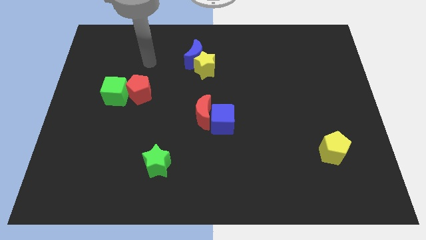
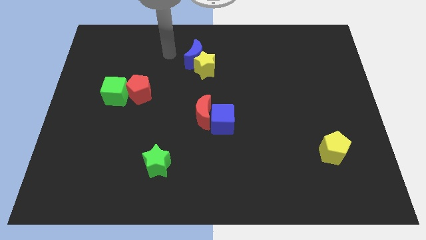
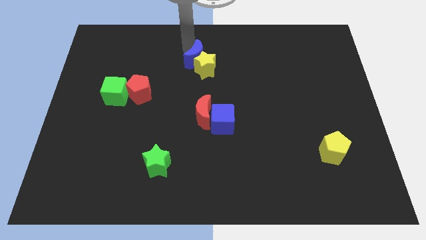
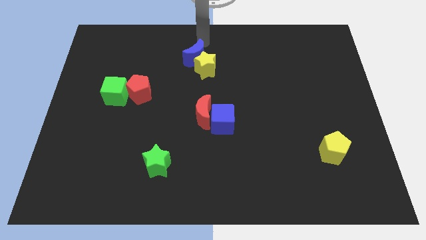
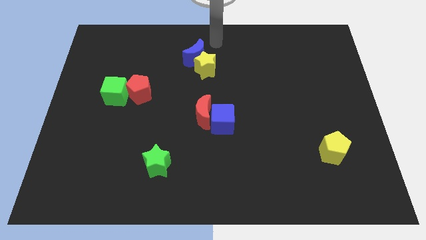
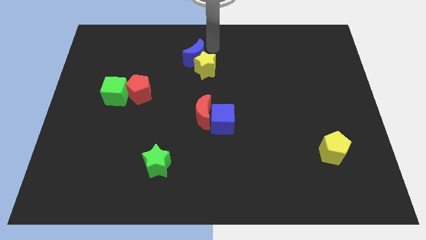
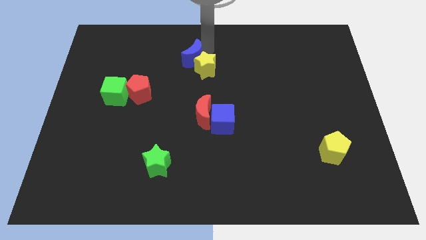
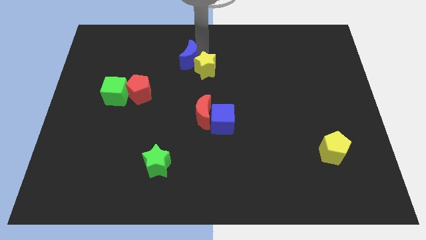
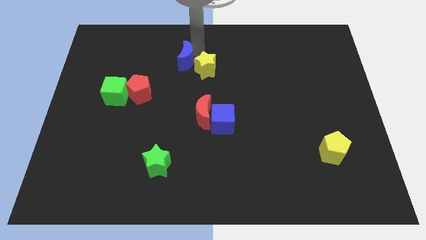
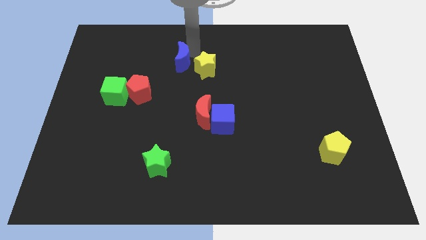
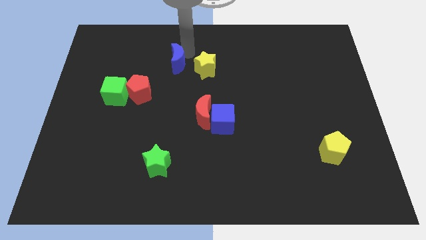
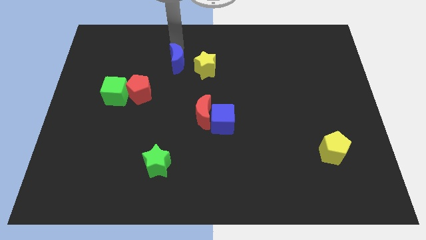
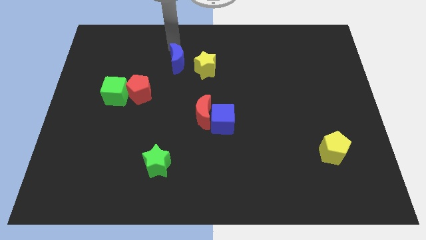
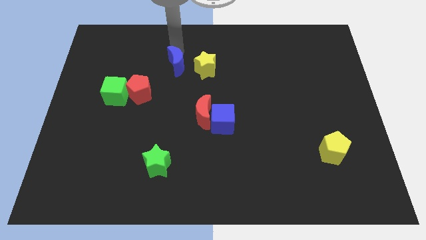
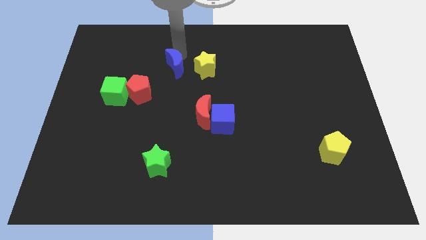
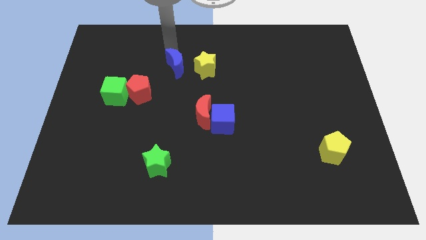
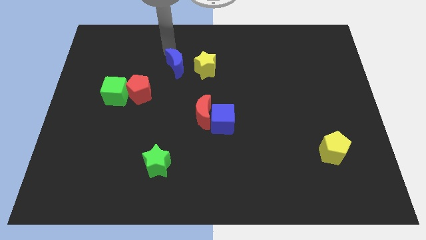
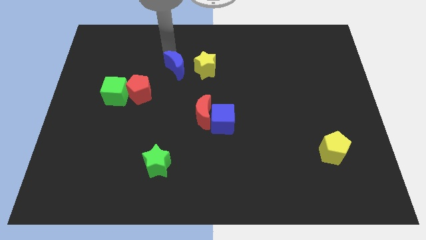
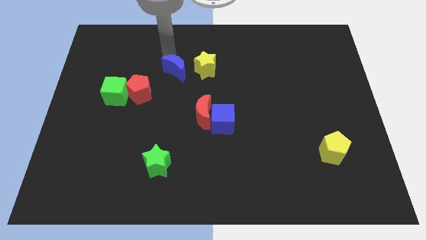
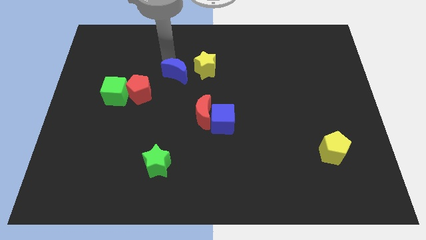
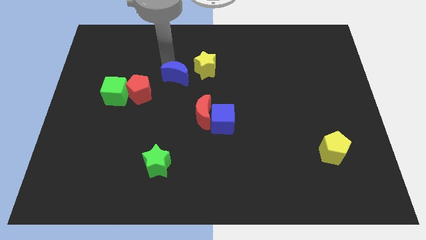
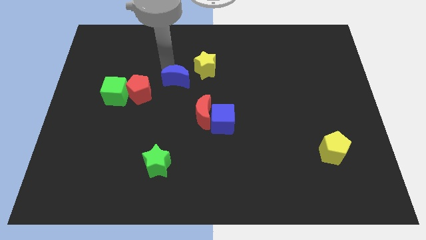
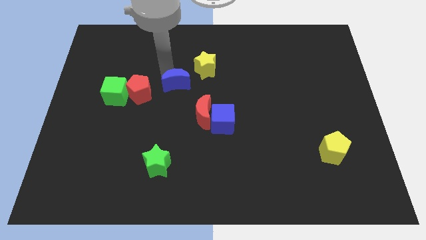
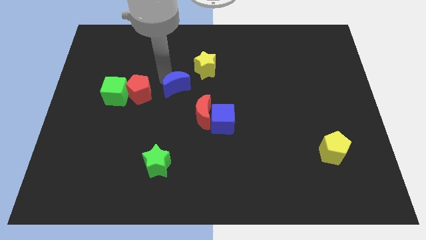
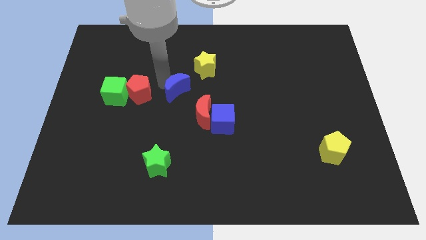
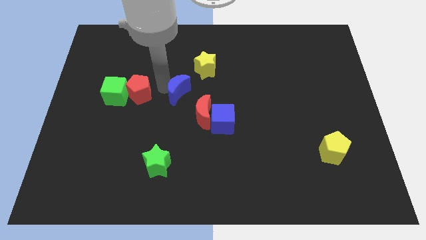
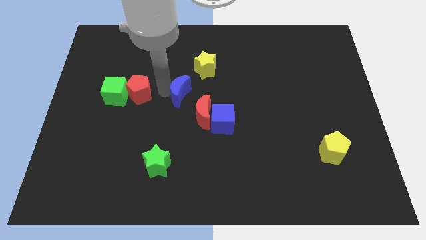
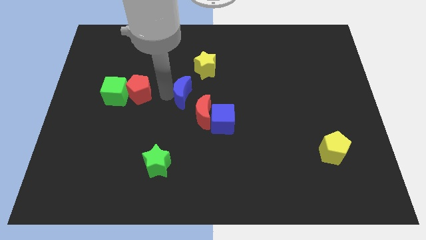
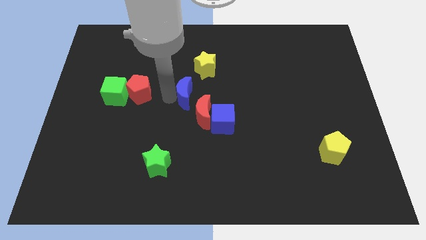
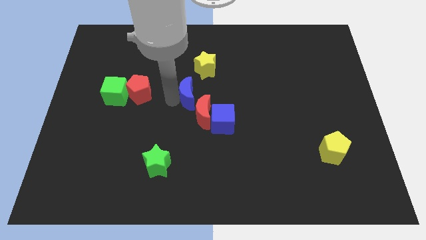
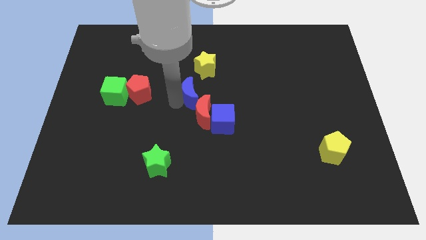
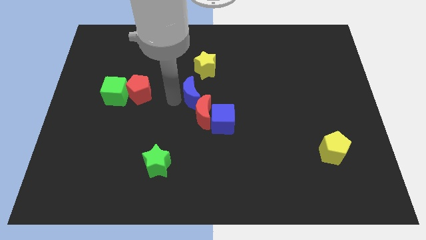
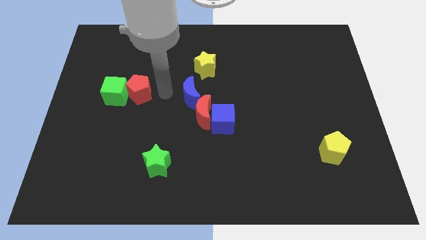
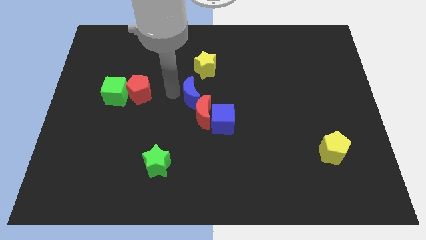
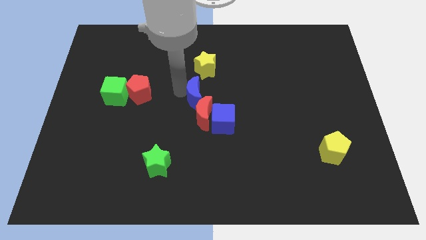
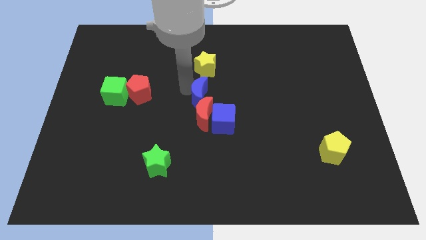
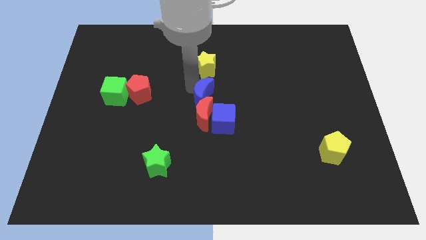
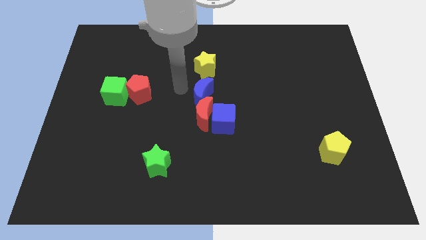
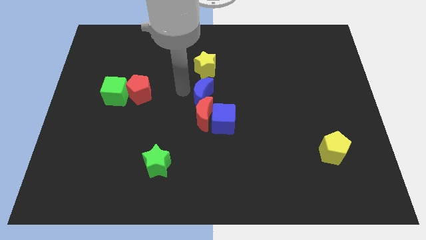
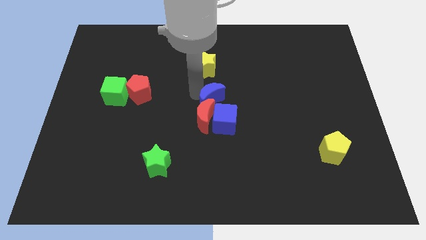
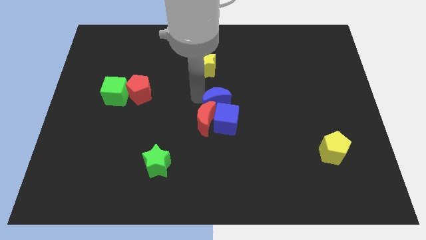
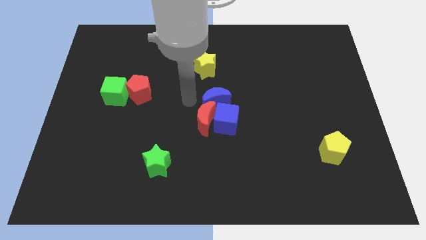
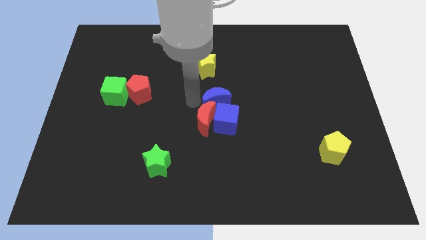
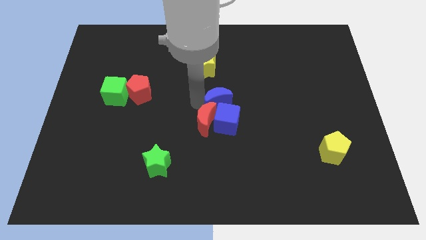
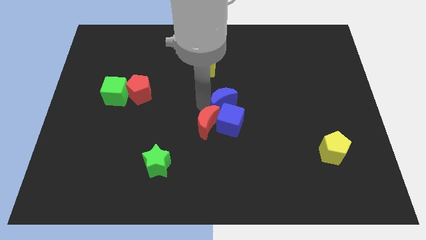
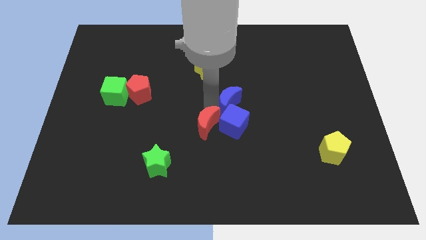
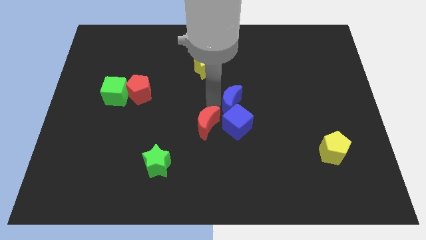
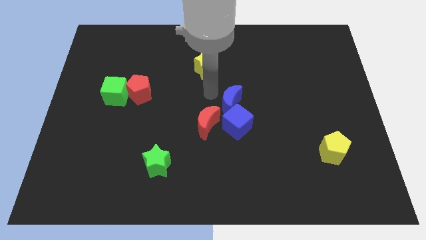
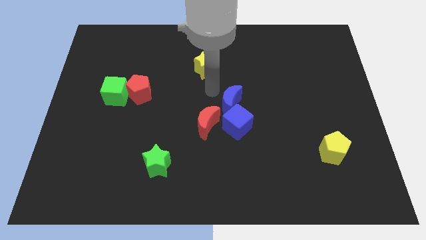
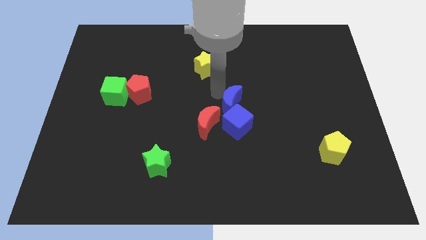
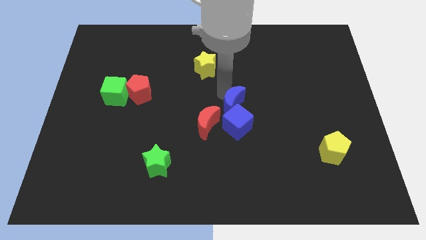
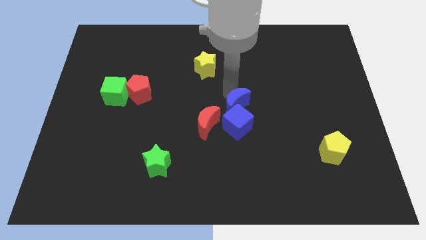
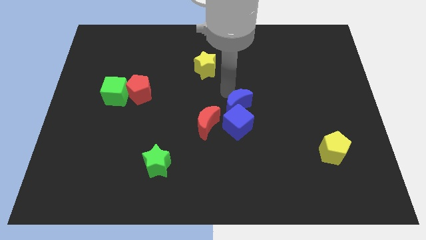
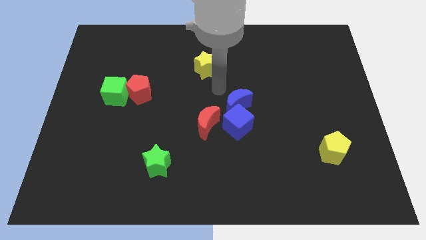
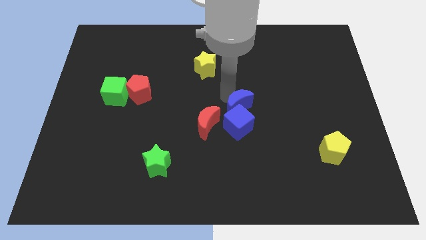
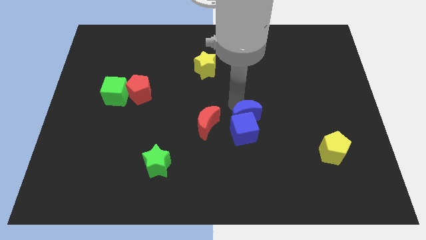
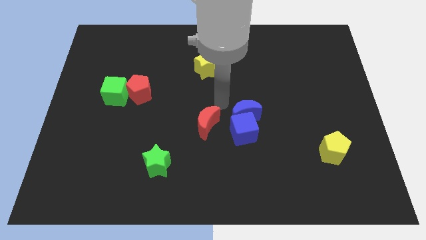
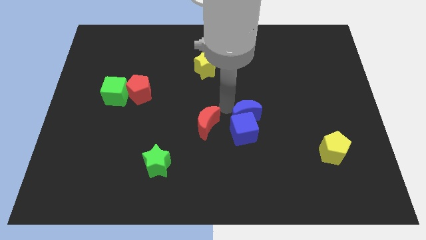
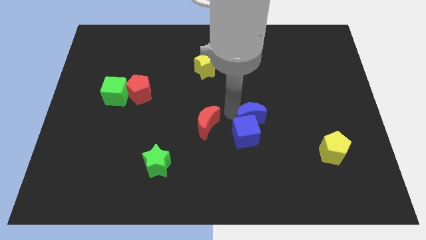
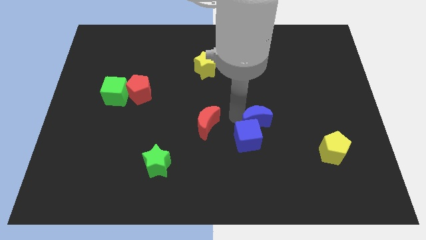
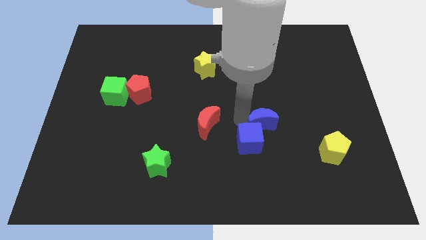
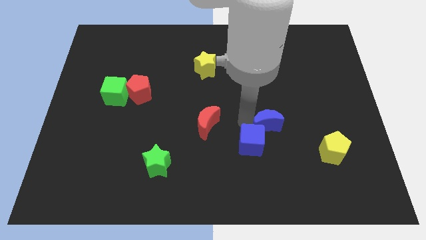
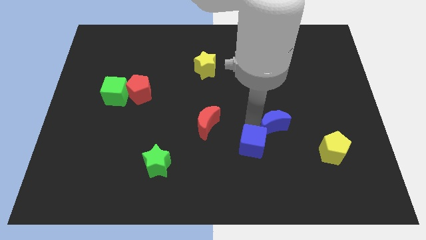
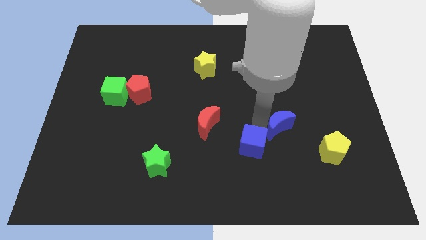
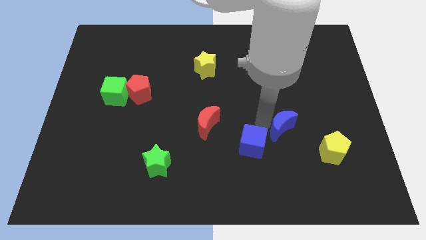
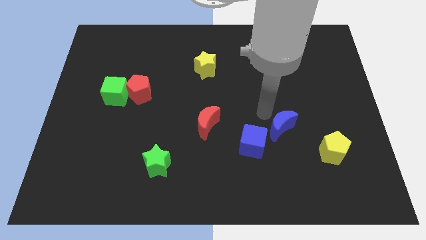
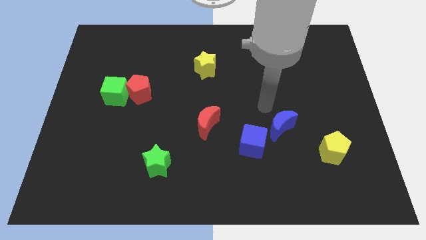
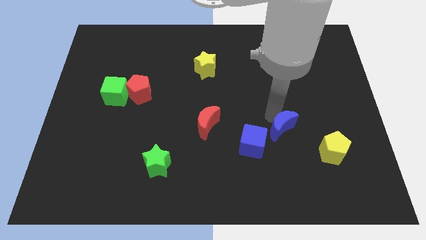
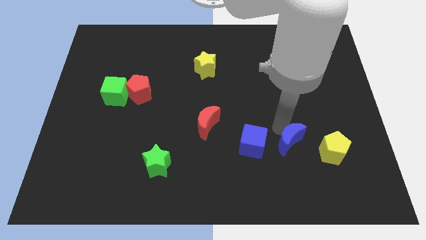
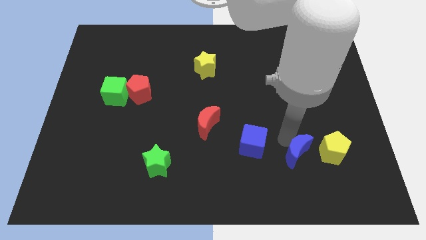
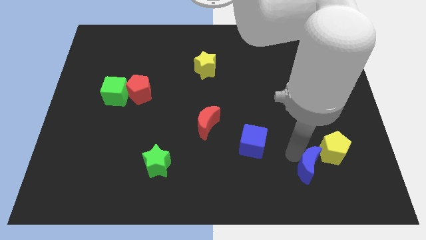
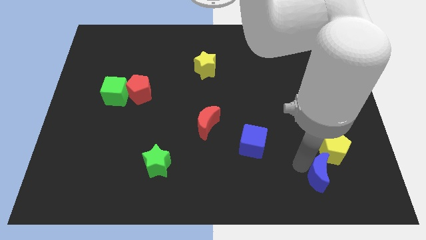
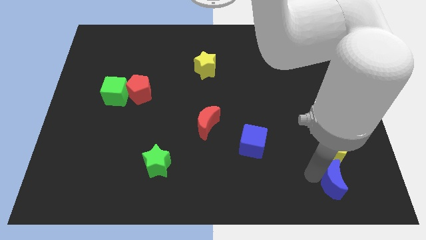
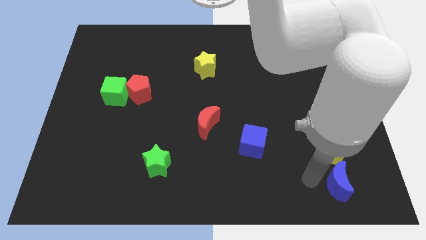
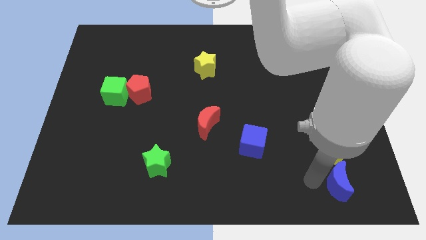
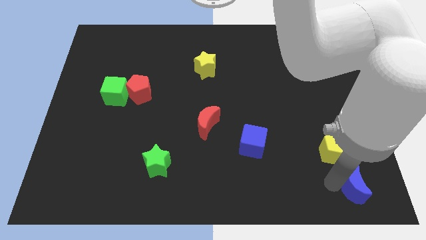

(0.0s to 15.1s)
put the blue moon to the bottom right

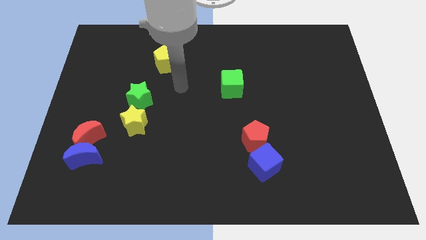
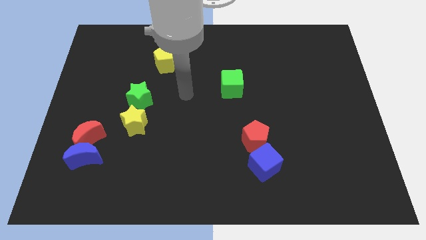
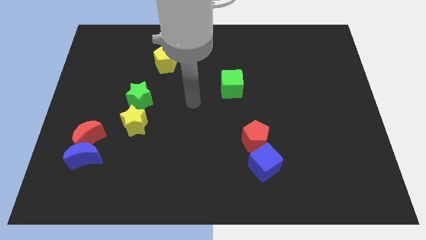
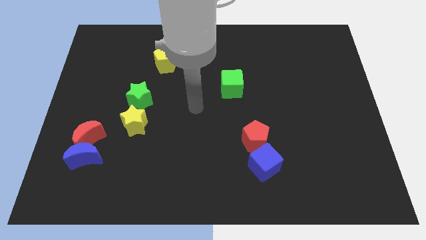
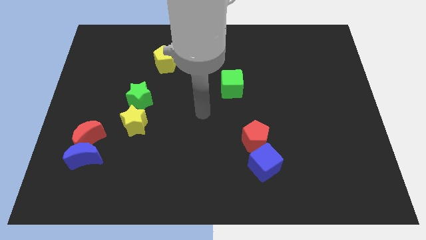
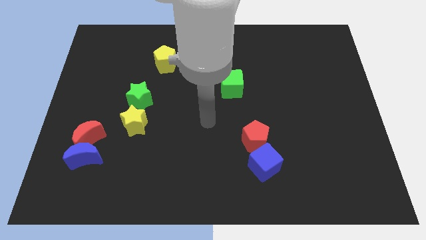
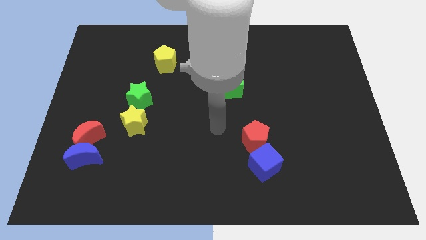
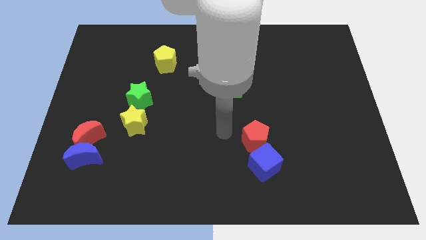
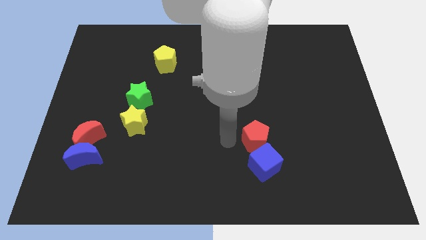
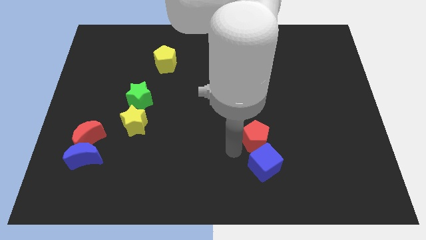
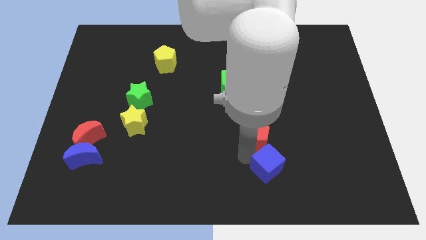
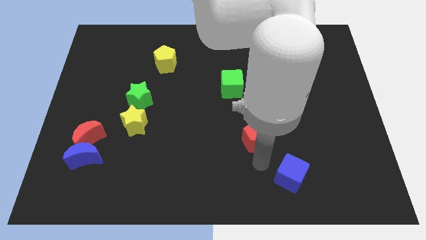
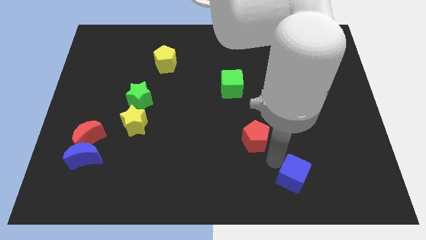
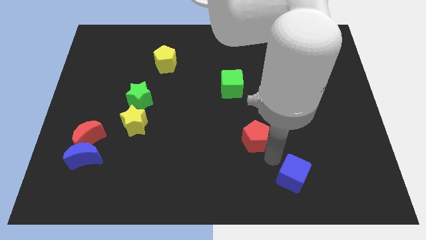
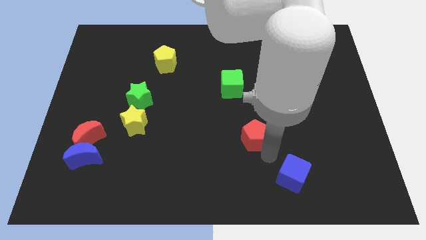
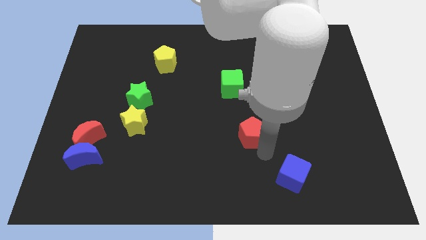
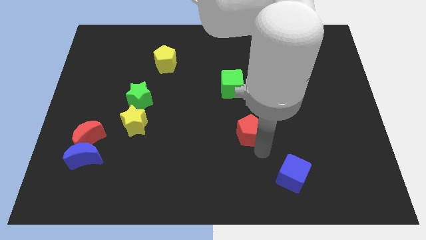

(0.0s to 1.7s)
put the red pentagon to the middle
